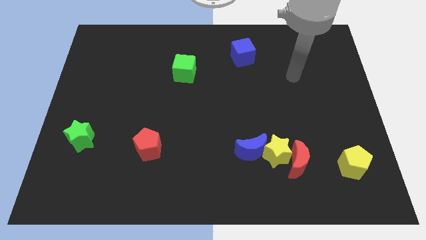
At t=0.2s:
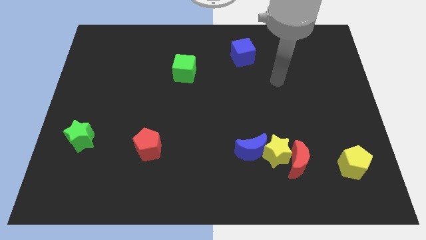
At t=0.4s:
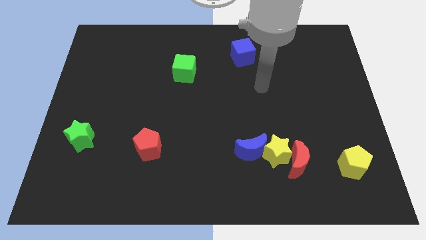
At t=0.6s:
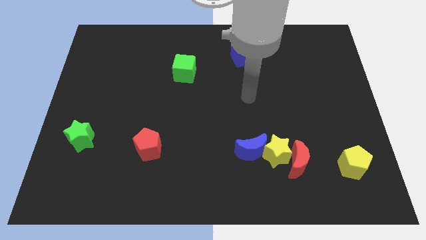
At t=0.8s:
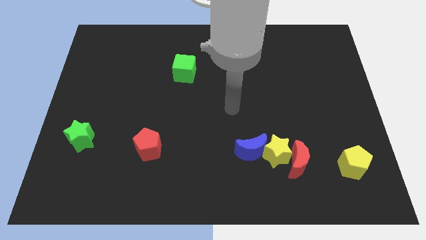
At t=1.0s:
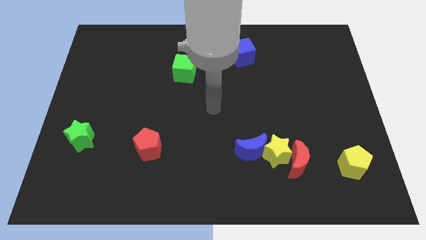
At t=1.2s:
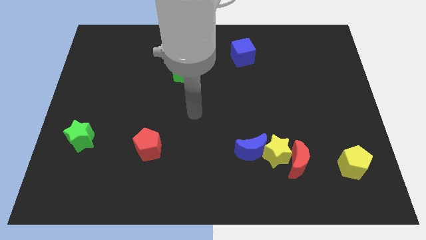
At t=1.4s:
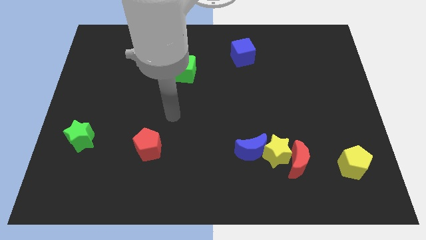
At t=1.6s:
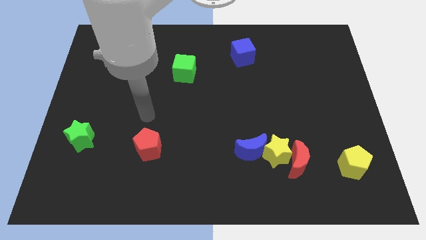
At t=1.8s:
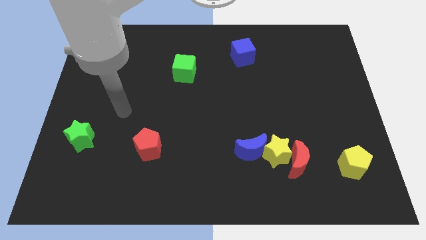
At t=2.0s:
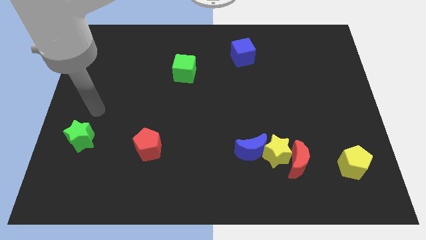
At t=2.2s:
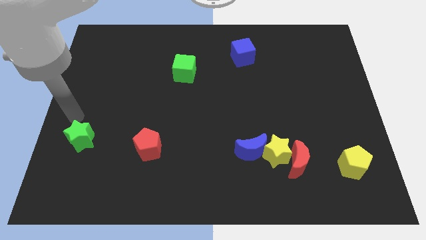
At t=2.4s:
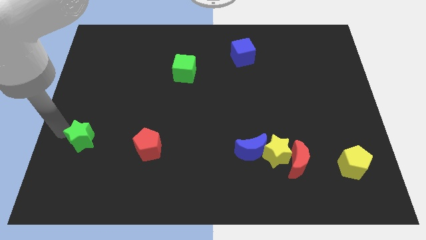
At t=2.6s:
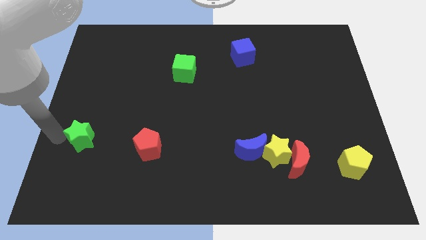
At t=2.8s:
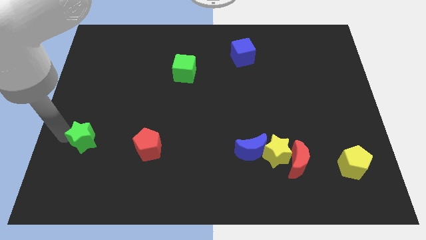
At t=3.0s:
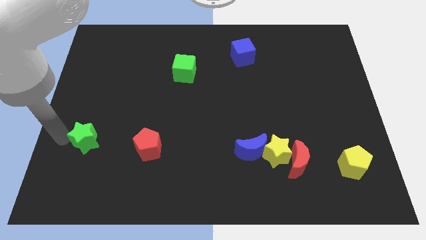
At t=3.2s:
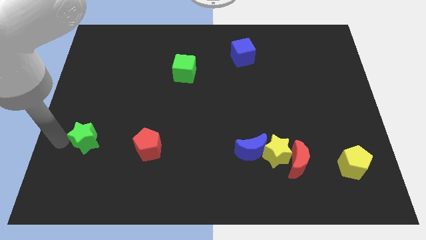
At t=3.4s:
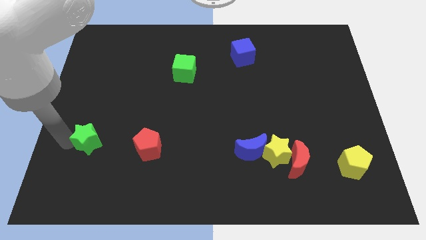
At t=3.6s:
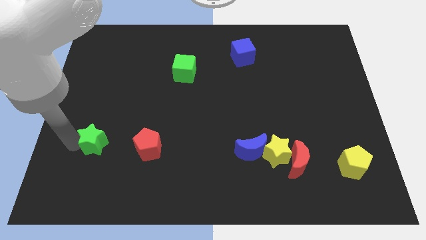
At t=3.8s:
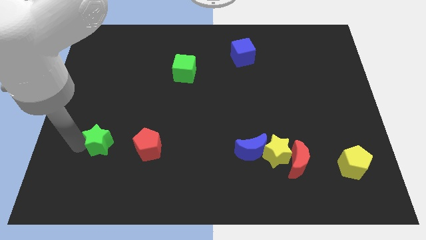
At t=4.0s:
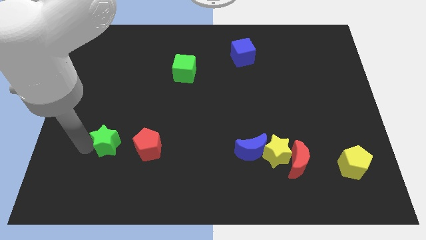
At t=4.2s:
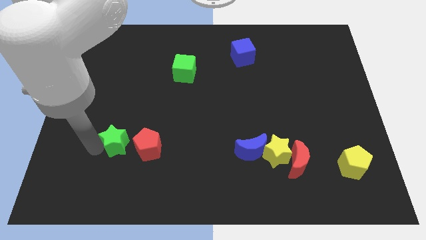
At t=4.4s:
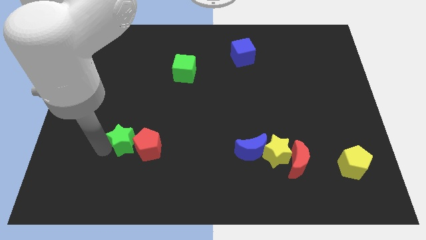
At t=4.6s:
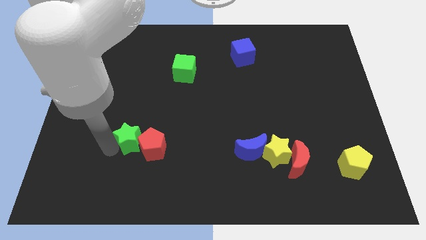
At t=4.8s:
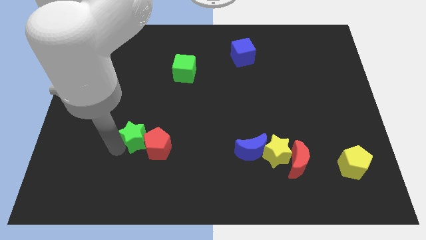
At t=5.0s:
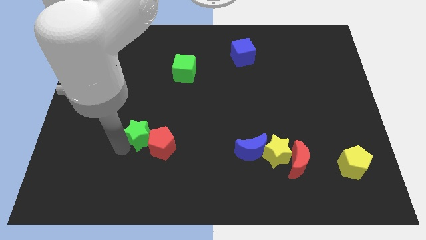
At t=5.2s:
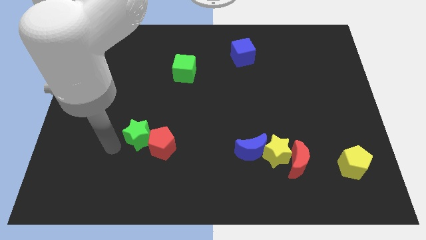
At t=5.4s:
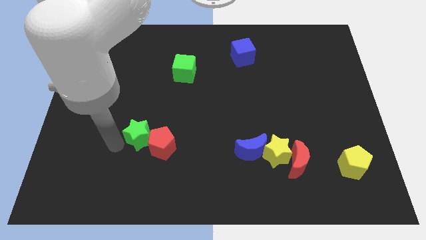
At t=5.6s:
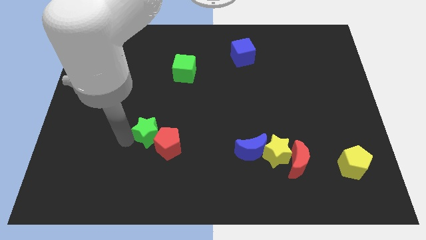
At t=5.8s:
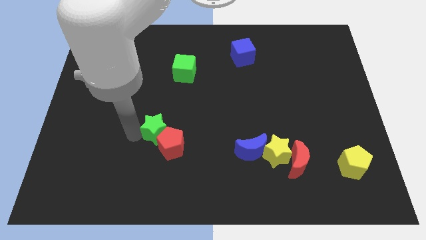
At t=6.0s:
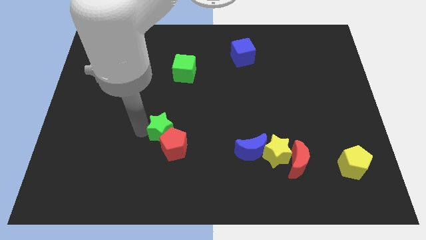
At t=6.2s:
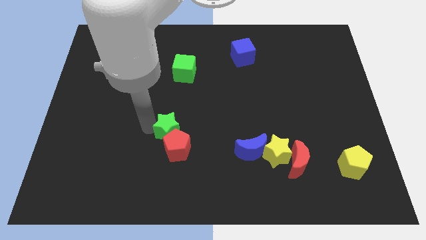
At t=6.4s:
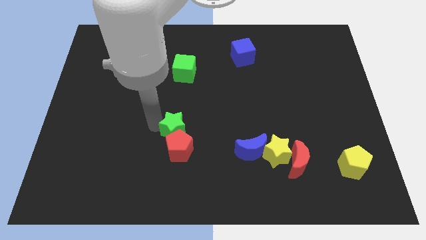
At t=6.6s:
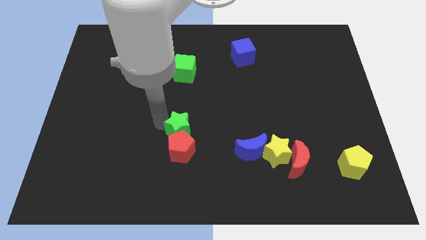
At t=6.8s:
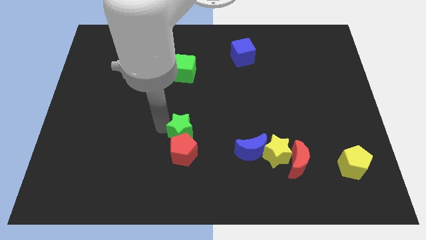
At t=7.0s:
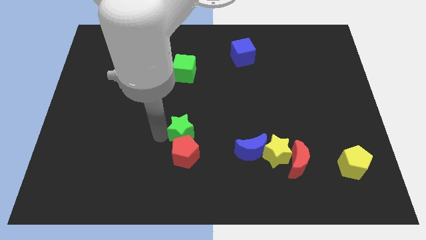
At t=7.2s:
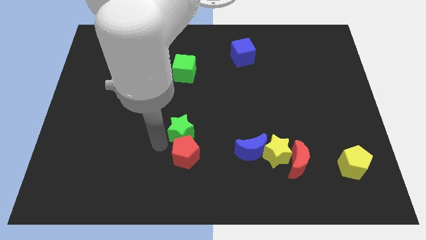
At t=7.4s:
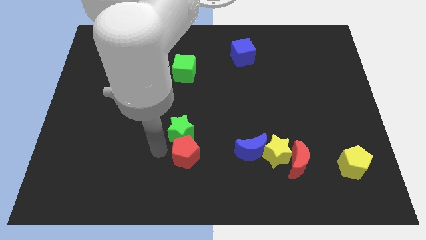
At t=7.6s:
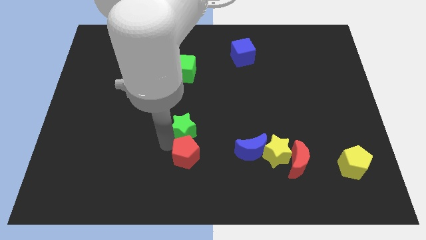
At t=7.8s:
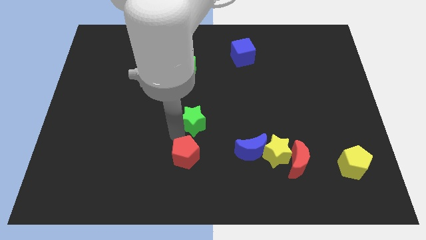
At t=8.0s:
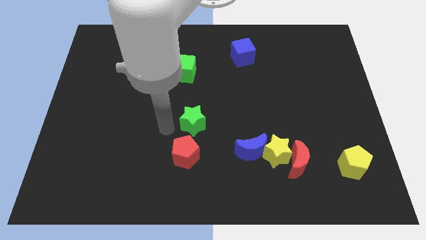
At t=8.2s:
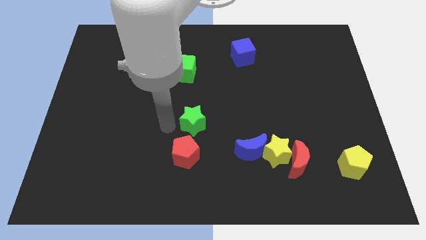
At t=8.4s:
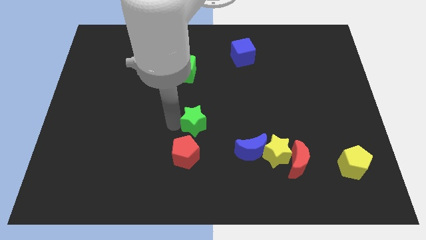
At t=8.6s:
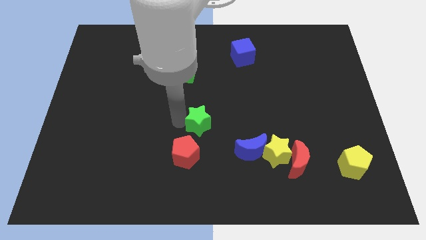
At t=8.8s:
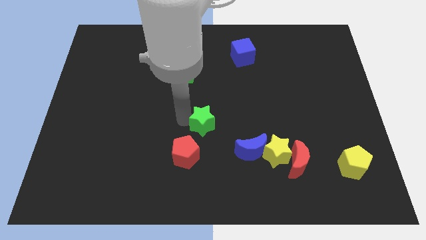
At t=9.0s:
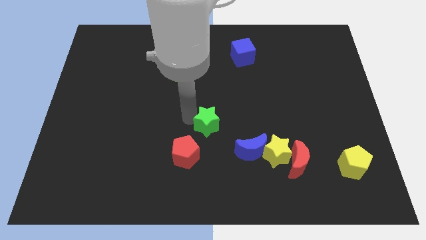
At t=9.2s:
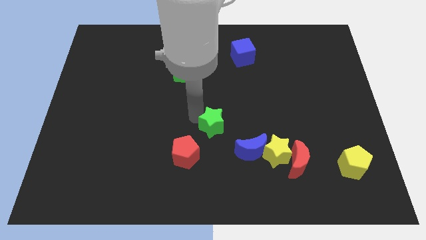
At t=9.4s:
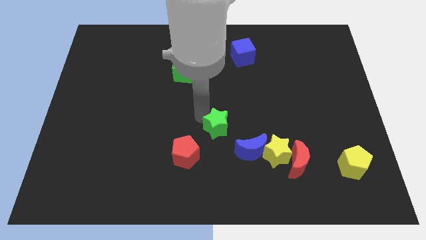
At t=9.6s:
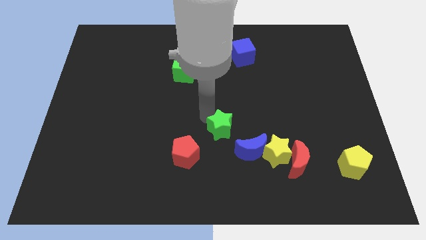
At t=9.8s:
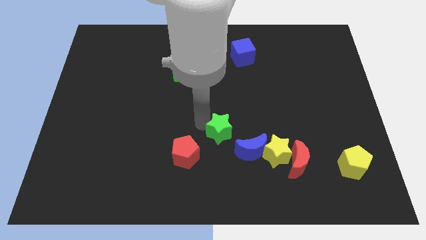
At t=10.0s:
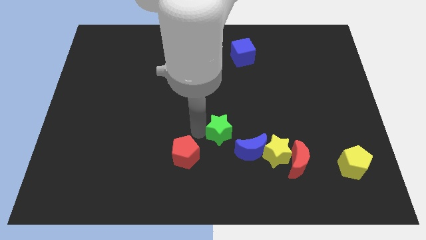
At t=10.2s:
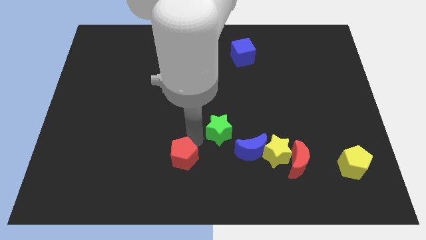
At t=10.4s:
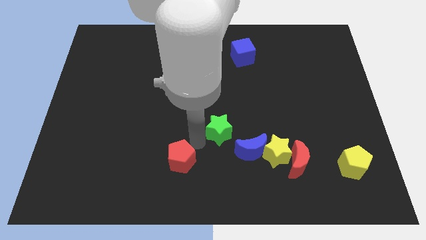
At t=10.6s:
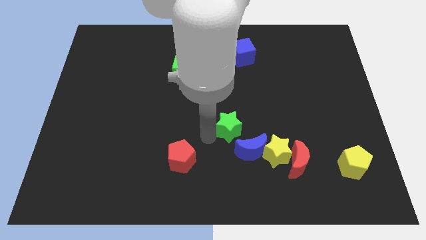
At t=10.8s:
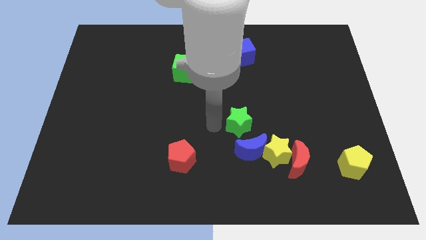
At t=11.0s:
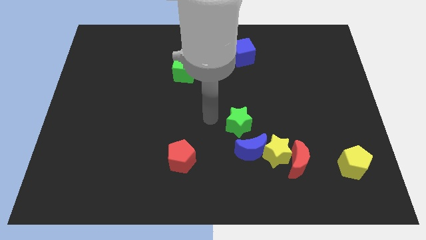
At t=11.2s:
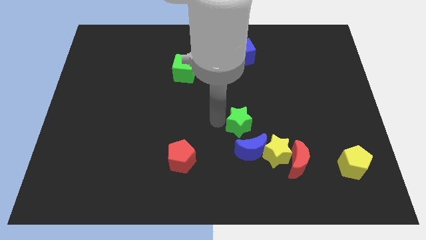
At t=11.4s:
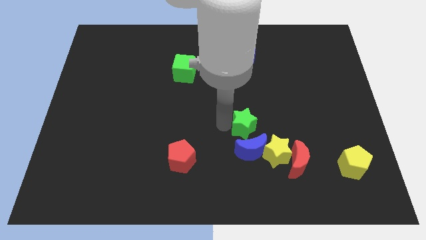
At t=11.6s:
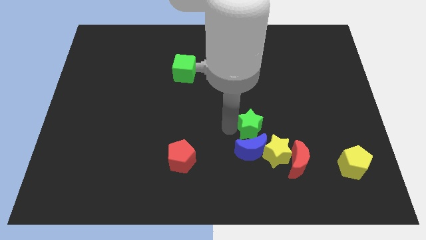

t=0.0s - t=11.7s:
put the green star to the top right of the blue moon

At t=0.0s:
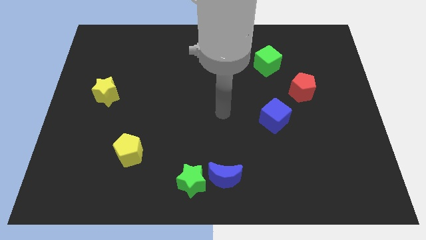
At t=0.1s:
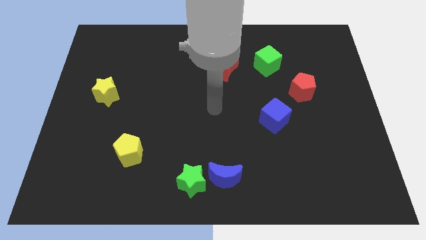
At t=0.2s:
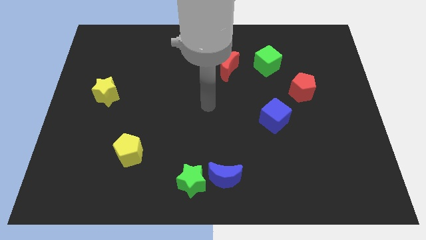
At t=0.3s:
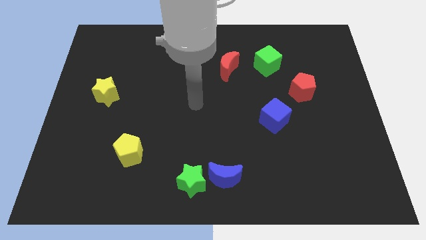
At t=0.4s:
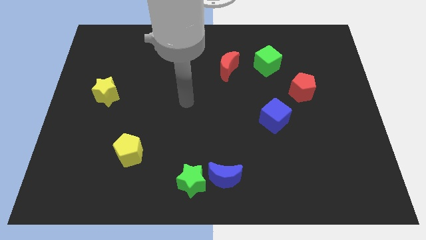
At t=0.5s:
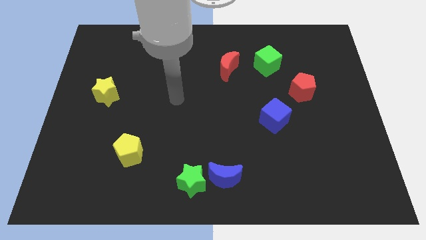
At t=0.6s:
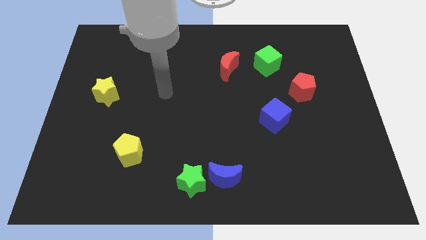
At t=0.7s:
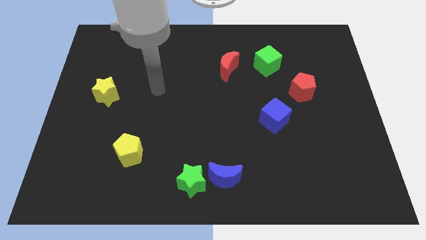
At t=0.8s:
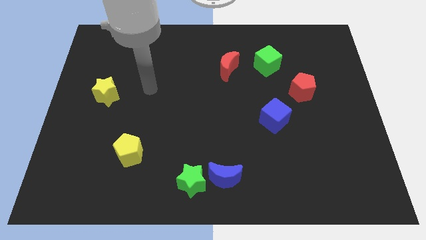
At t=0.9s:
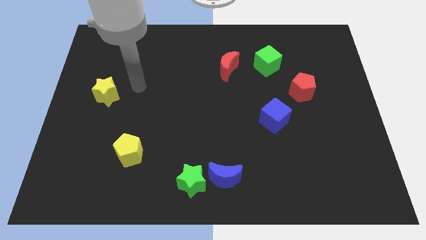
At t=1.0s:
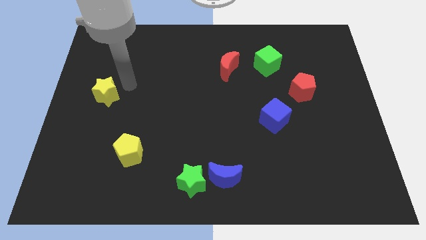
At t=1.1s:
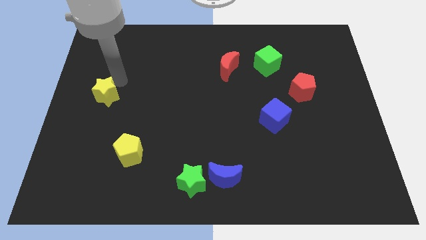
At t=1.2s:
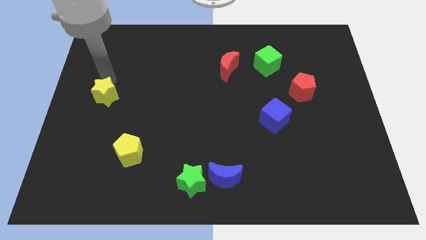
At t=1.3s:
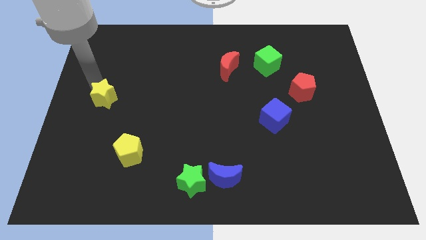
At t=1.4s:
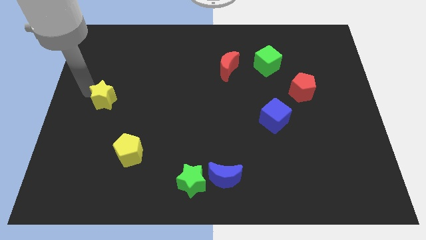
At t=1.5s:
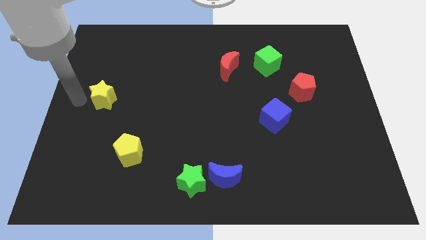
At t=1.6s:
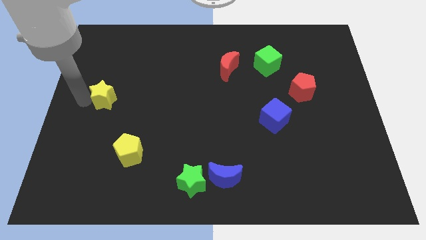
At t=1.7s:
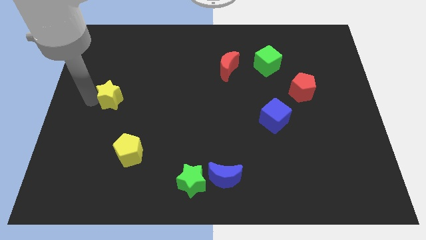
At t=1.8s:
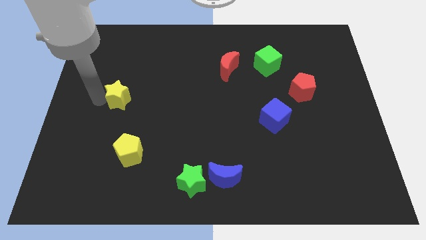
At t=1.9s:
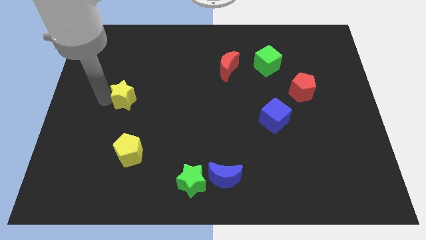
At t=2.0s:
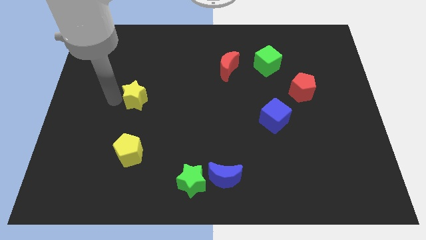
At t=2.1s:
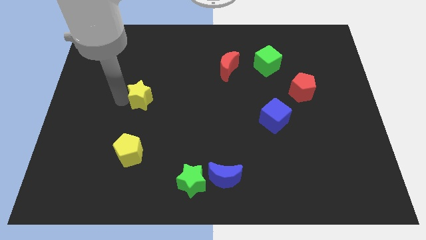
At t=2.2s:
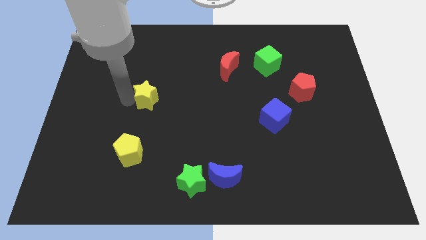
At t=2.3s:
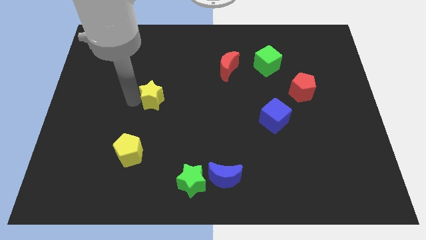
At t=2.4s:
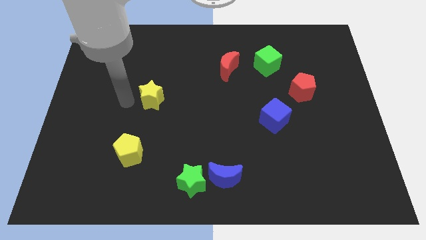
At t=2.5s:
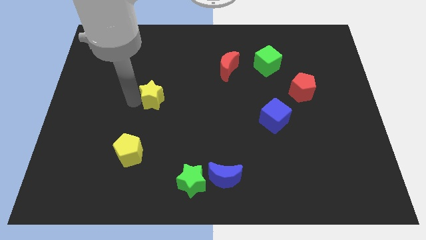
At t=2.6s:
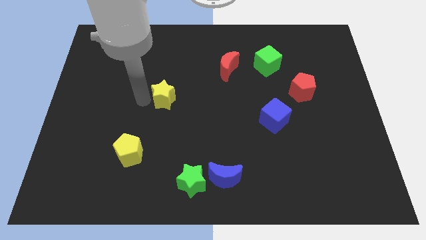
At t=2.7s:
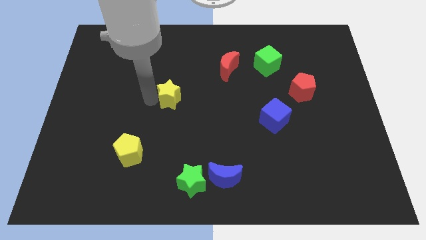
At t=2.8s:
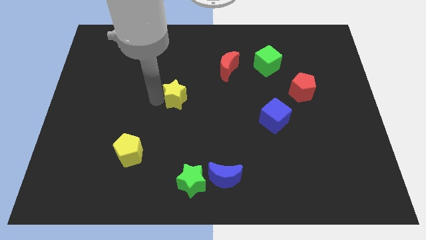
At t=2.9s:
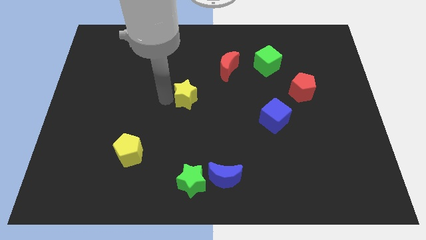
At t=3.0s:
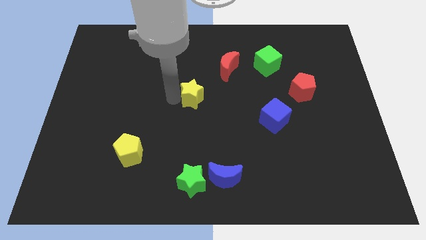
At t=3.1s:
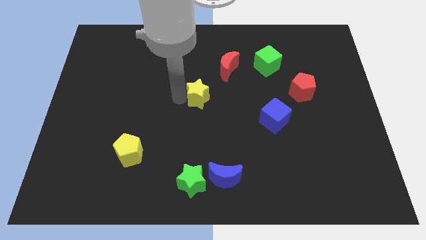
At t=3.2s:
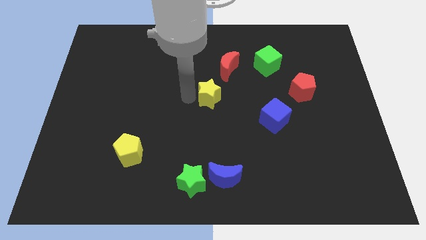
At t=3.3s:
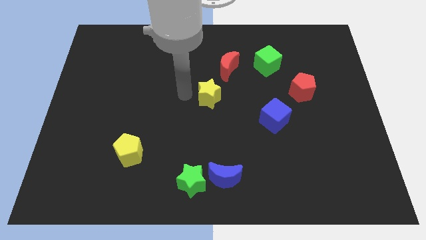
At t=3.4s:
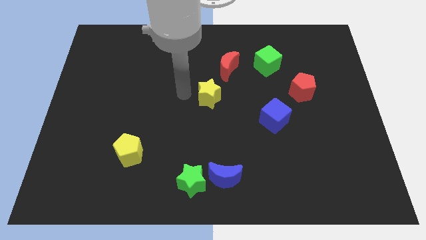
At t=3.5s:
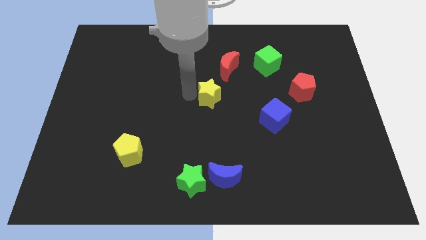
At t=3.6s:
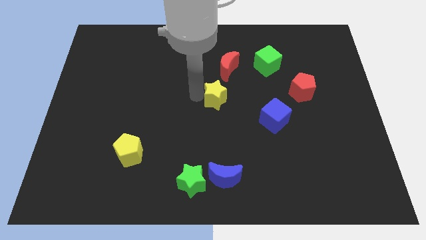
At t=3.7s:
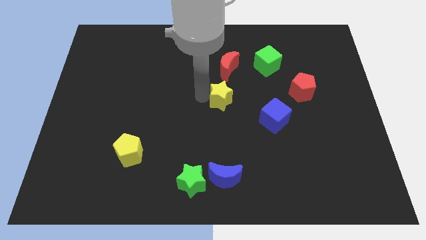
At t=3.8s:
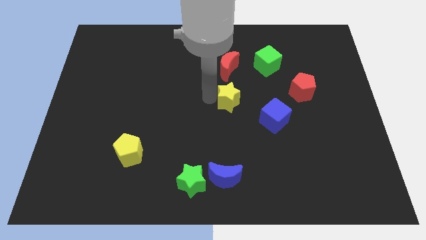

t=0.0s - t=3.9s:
push the yellow star to the top left side of the blue cube
